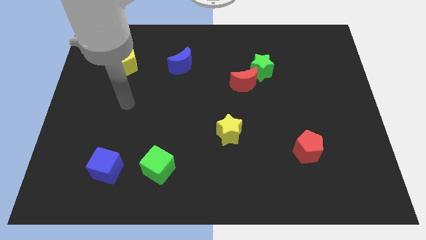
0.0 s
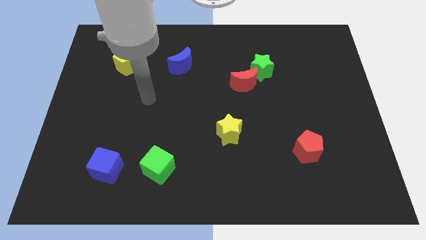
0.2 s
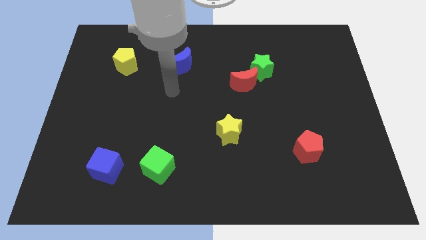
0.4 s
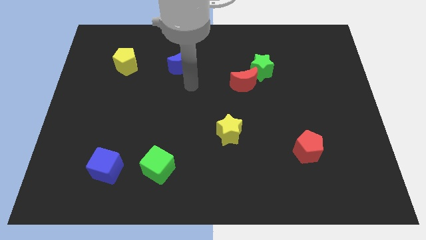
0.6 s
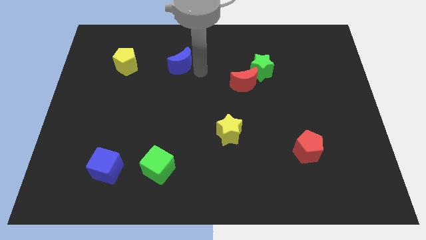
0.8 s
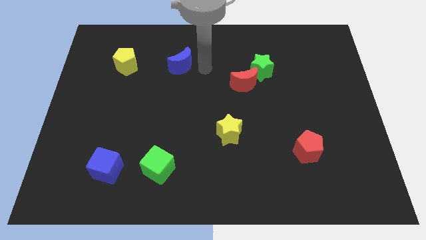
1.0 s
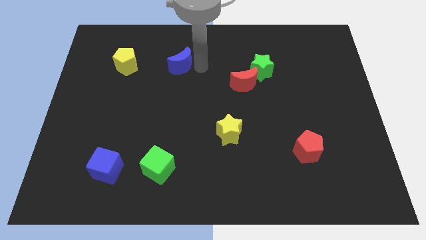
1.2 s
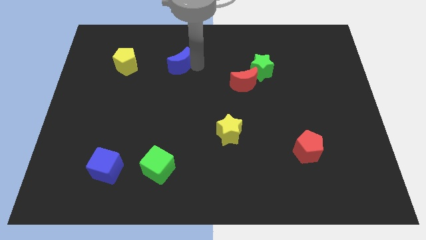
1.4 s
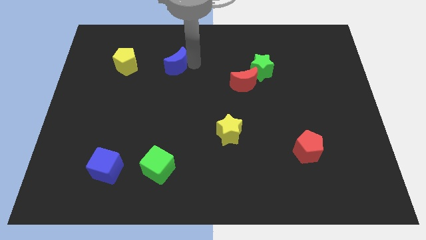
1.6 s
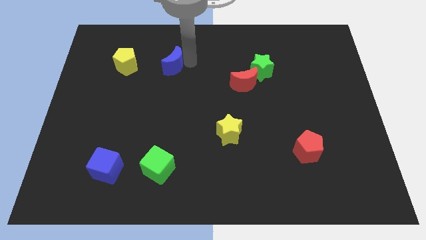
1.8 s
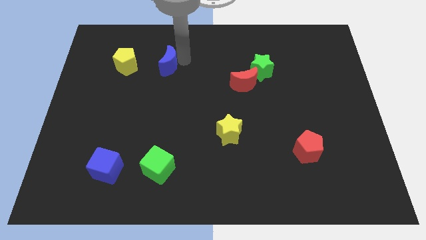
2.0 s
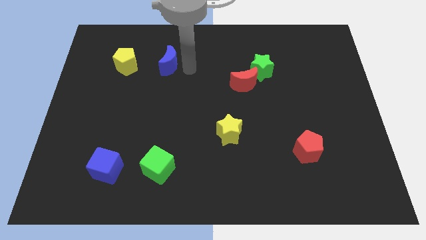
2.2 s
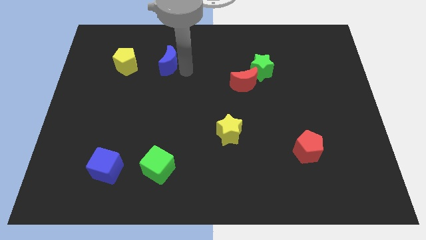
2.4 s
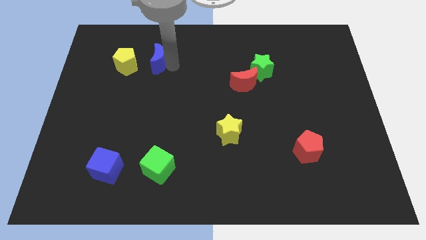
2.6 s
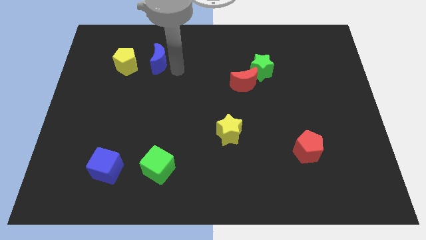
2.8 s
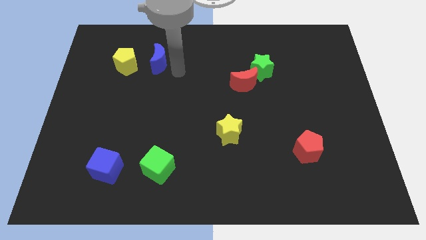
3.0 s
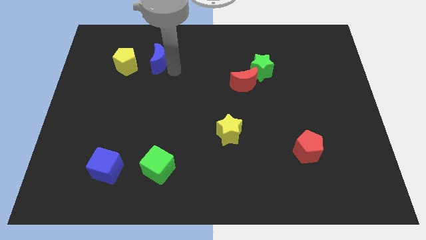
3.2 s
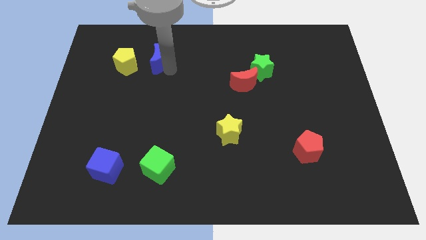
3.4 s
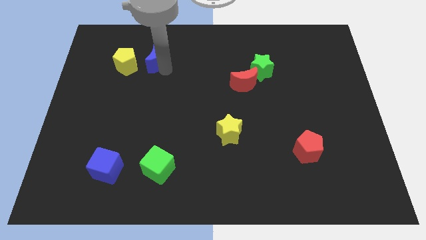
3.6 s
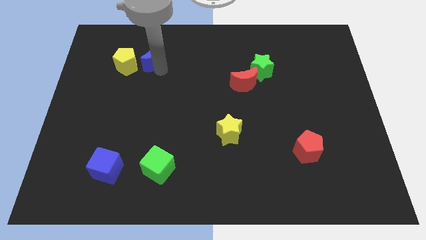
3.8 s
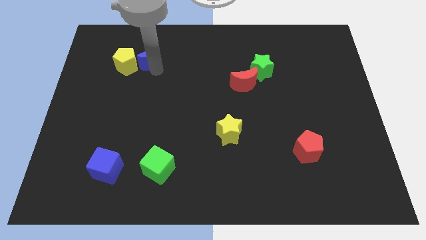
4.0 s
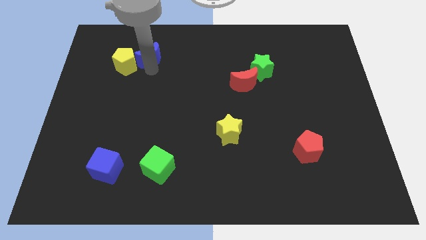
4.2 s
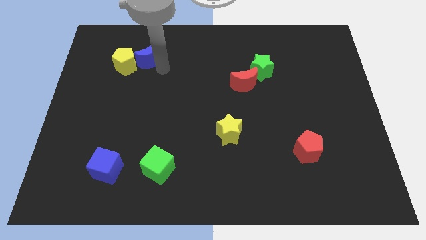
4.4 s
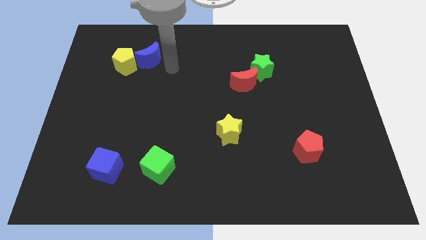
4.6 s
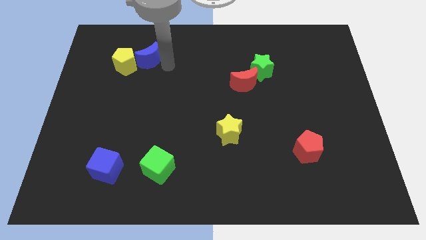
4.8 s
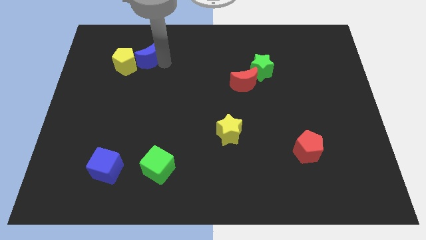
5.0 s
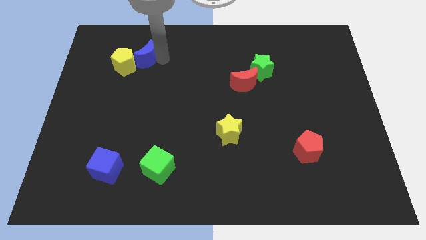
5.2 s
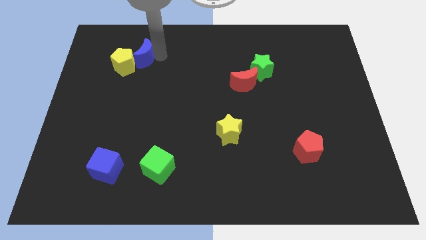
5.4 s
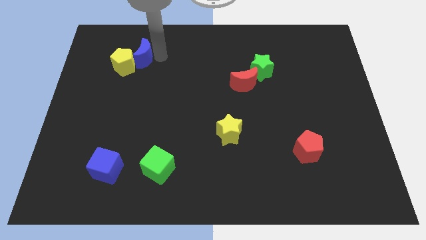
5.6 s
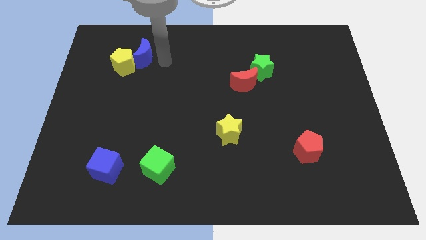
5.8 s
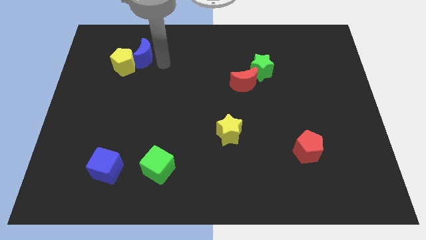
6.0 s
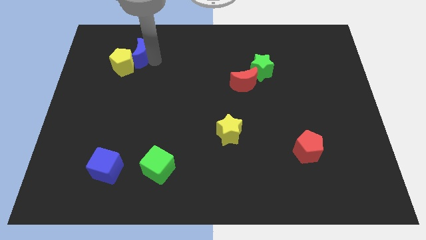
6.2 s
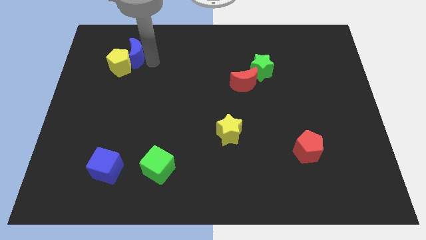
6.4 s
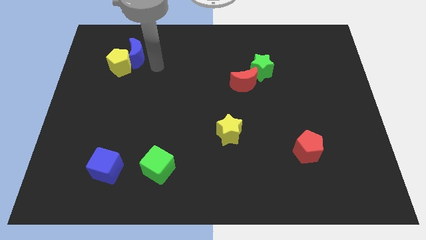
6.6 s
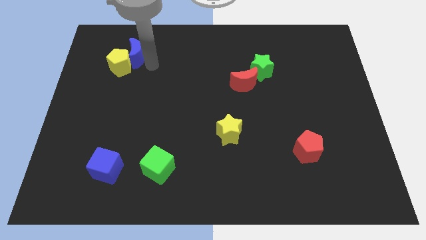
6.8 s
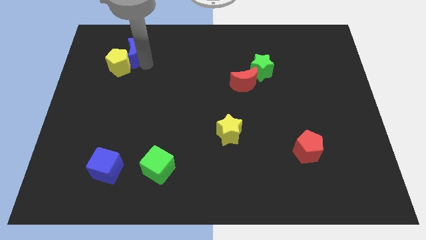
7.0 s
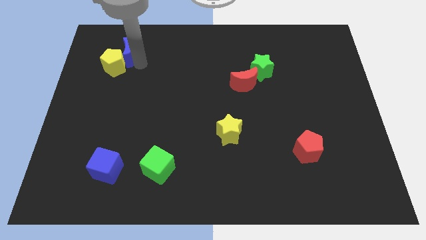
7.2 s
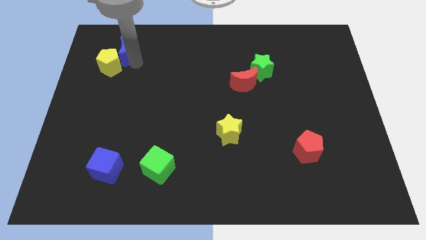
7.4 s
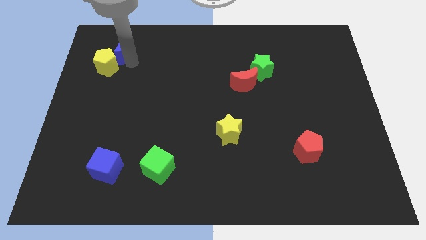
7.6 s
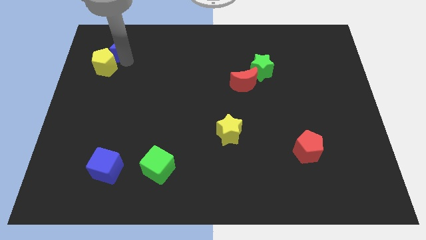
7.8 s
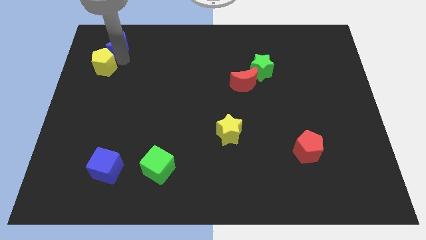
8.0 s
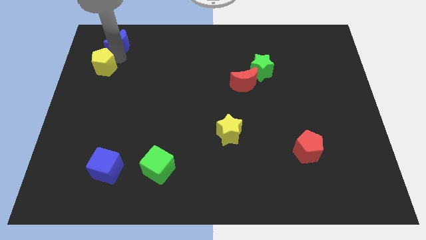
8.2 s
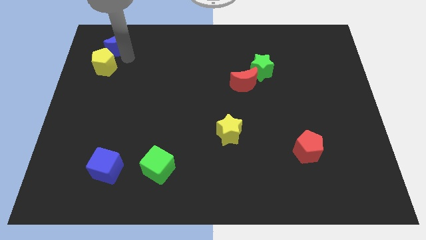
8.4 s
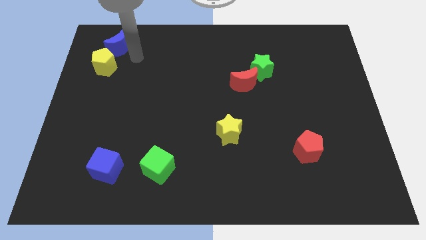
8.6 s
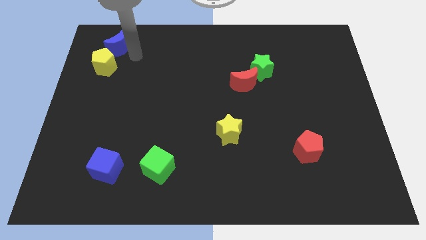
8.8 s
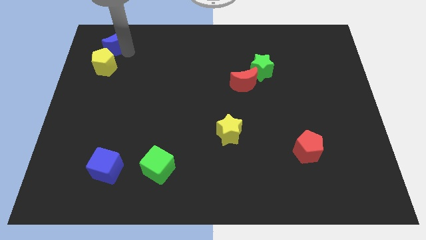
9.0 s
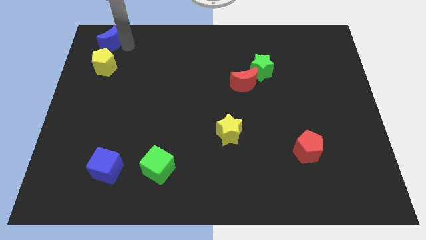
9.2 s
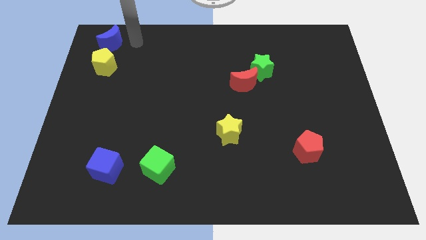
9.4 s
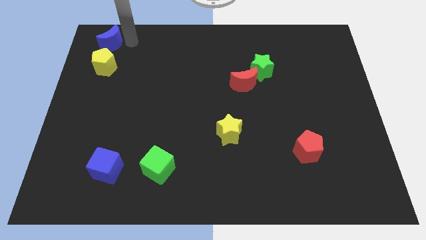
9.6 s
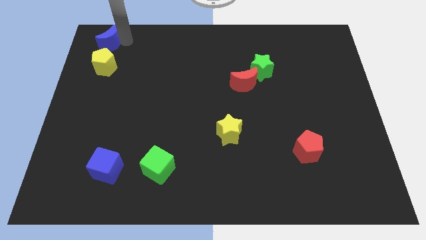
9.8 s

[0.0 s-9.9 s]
slide the blue moon to the top left

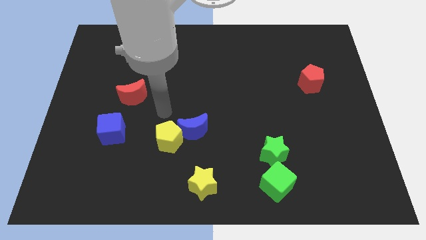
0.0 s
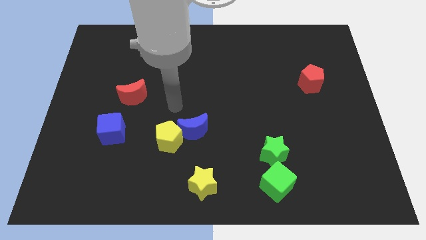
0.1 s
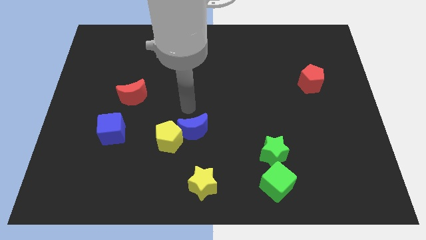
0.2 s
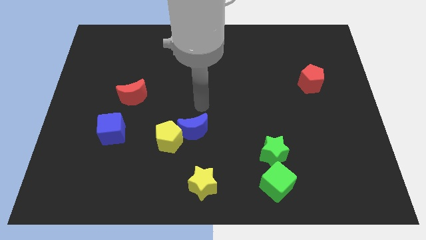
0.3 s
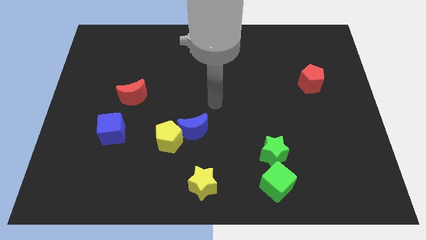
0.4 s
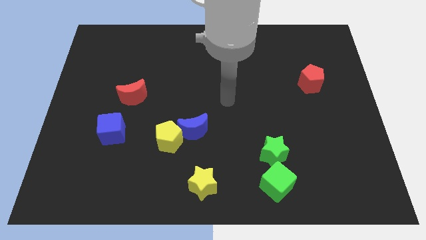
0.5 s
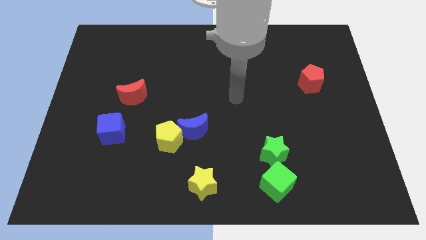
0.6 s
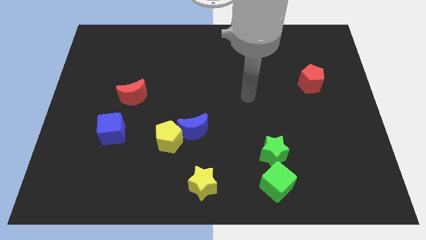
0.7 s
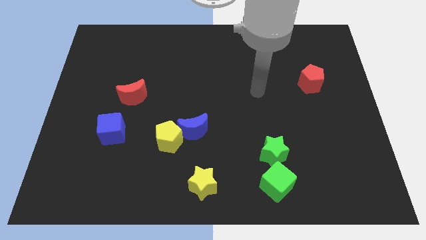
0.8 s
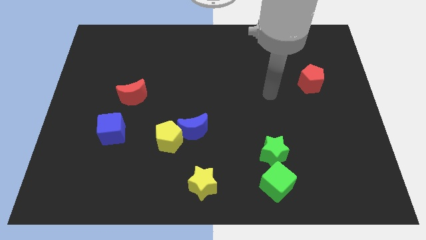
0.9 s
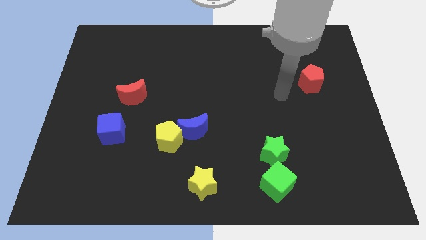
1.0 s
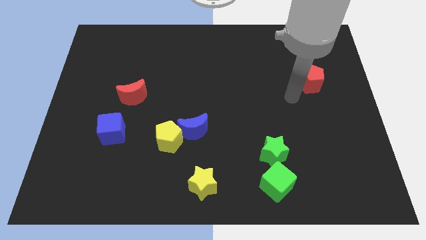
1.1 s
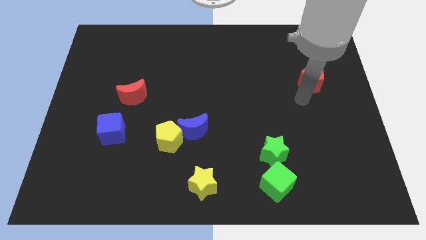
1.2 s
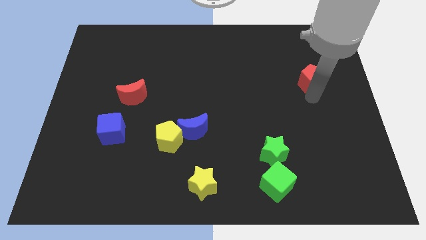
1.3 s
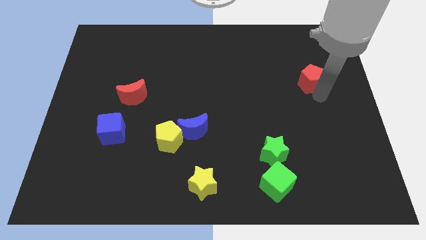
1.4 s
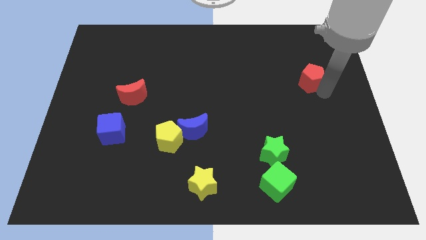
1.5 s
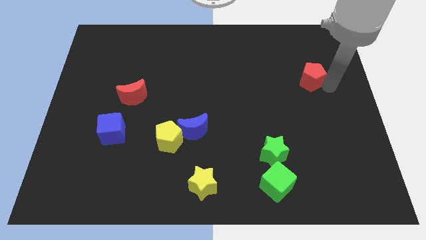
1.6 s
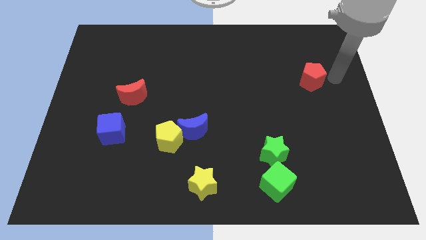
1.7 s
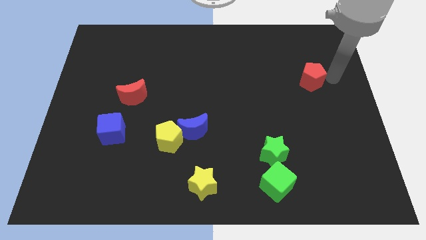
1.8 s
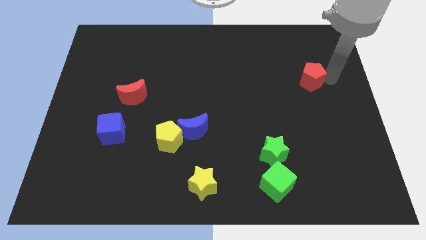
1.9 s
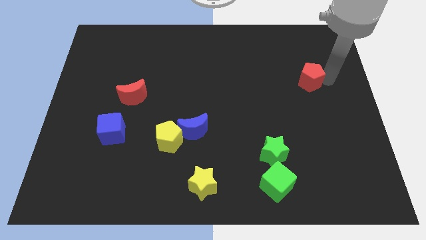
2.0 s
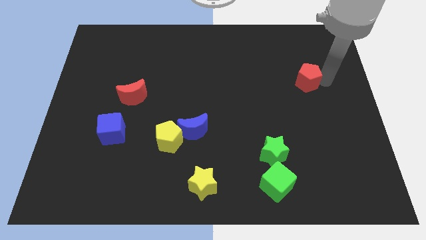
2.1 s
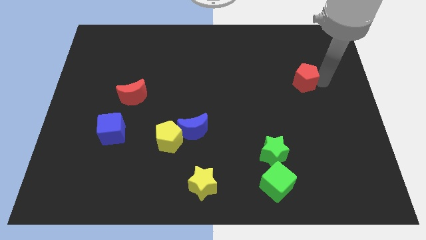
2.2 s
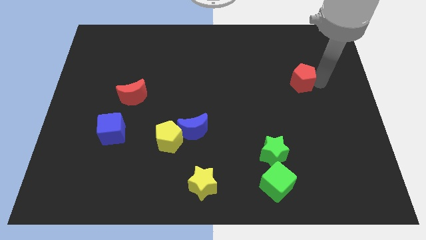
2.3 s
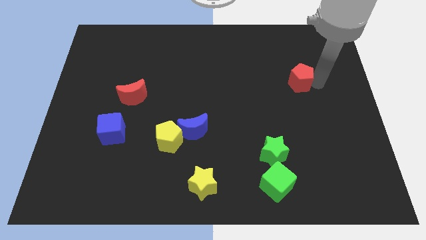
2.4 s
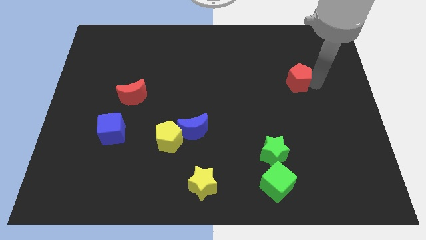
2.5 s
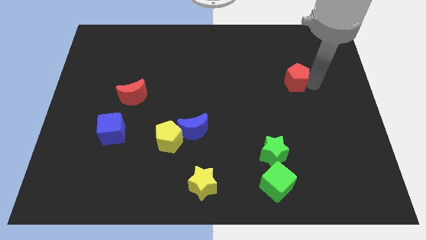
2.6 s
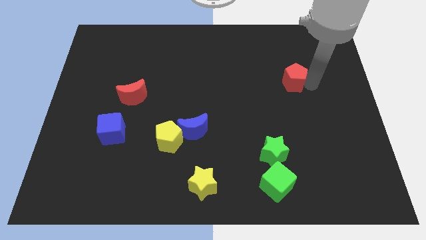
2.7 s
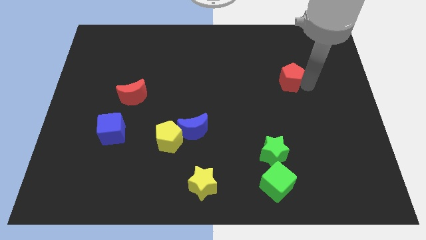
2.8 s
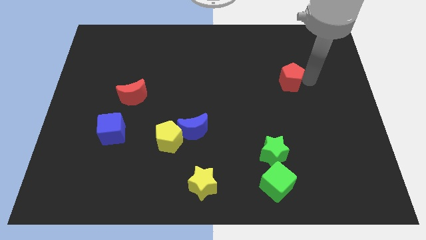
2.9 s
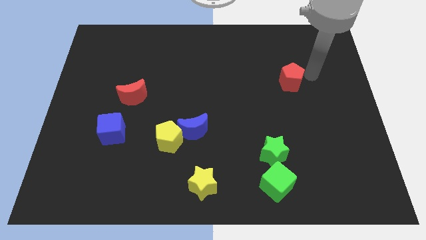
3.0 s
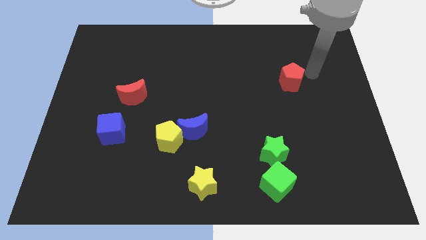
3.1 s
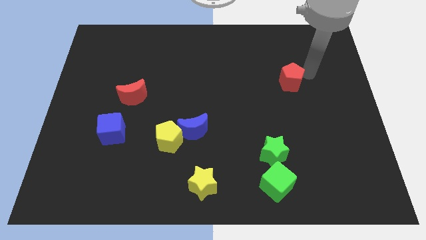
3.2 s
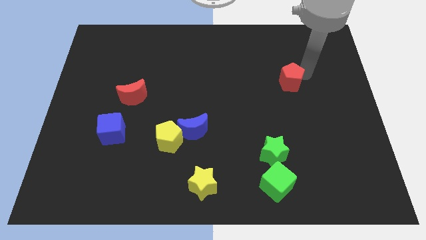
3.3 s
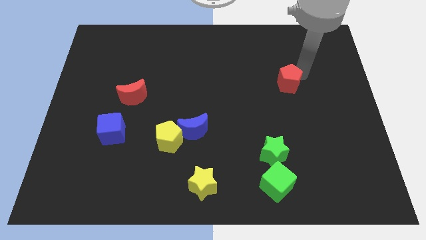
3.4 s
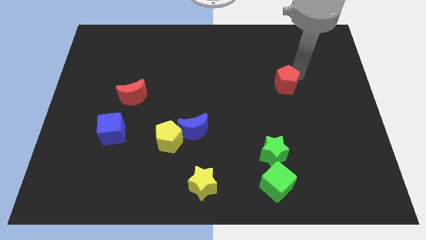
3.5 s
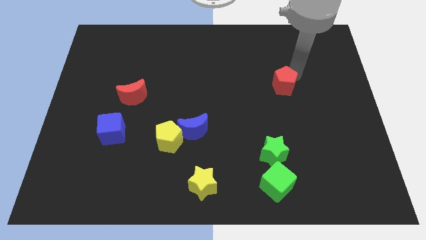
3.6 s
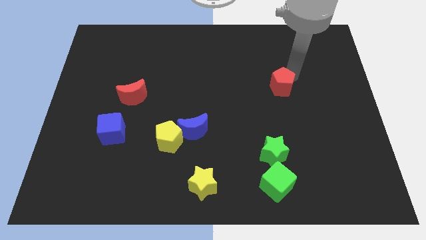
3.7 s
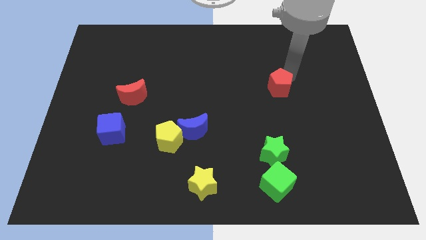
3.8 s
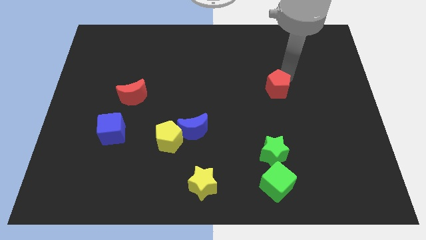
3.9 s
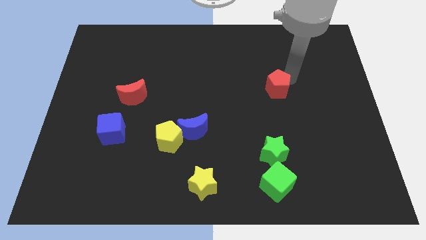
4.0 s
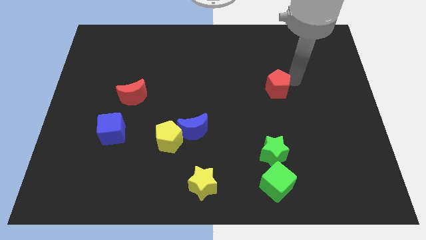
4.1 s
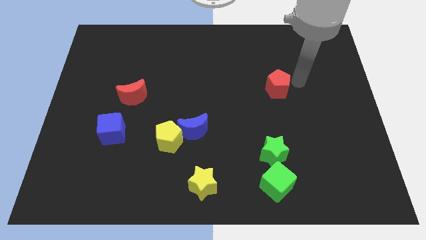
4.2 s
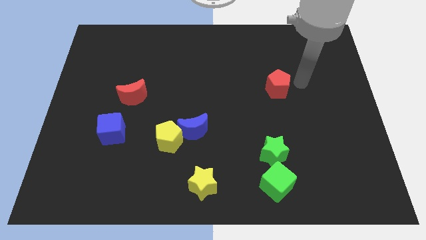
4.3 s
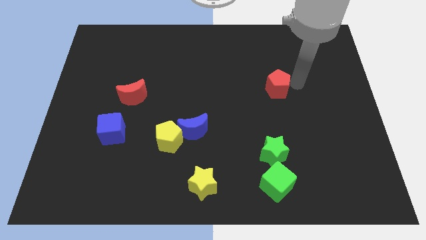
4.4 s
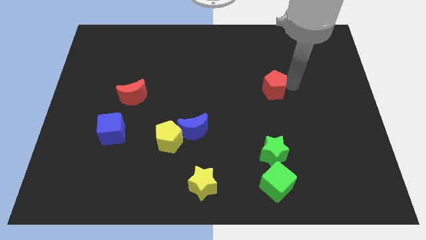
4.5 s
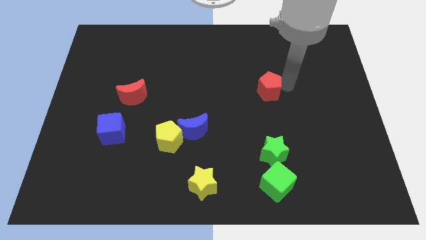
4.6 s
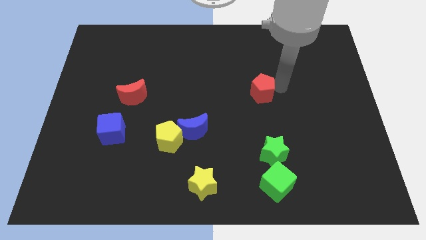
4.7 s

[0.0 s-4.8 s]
push the red pentagon to the center
